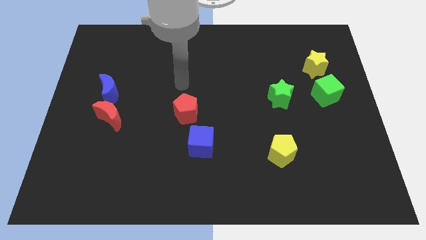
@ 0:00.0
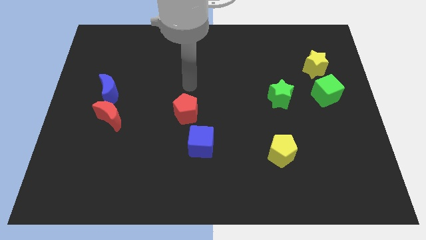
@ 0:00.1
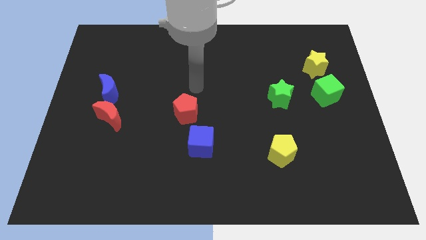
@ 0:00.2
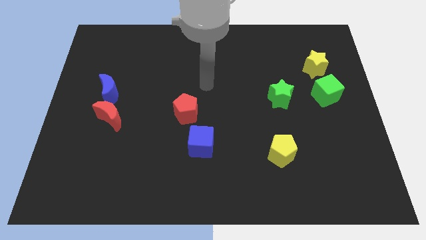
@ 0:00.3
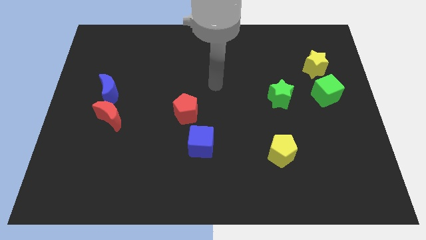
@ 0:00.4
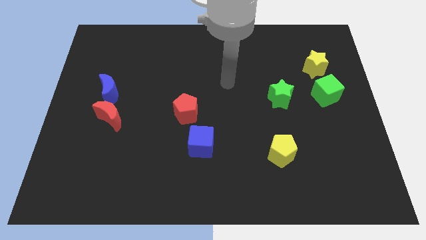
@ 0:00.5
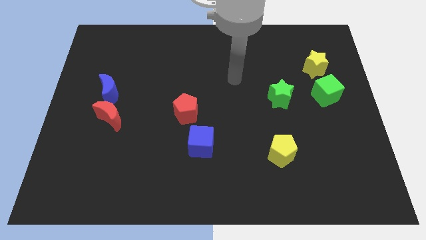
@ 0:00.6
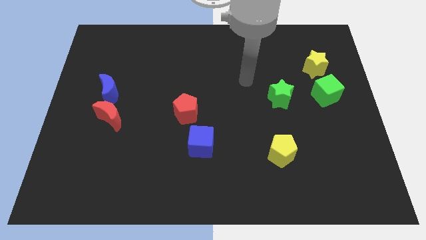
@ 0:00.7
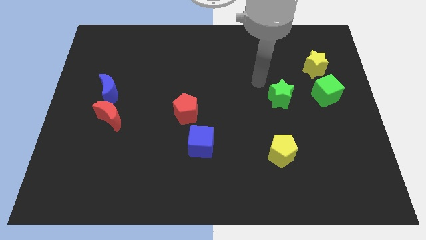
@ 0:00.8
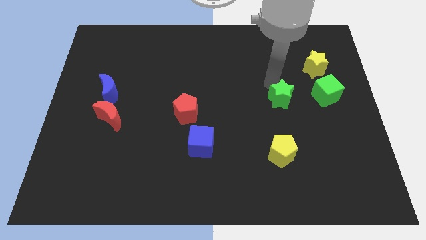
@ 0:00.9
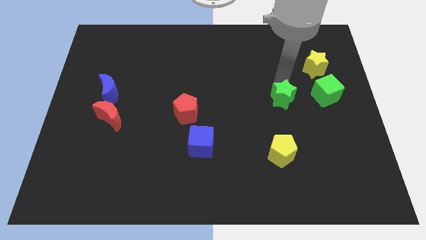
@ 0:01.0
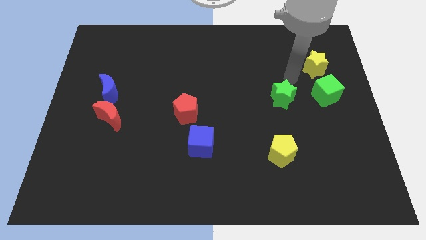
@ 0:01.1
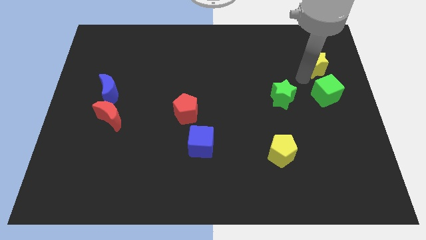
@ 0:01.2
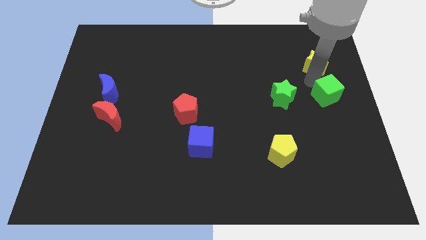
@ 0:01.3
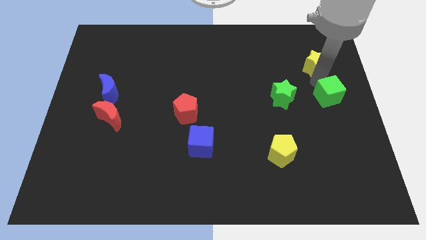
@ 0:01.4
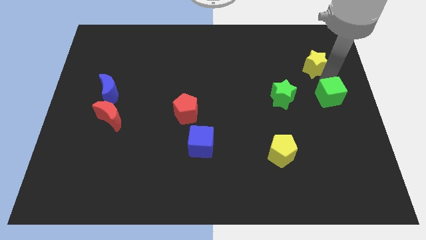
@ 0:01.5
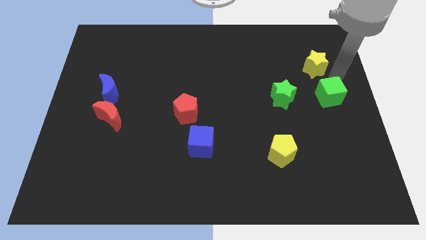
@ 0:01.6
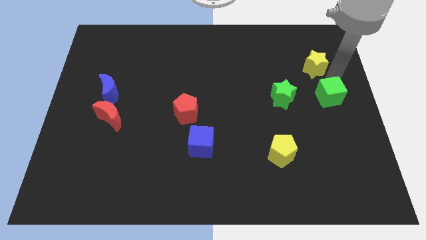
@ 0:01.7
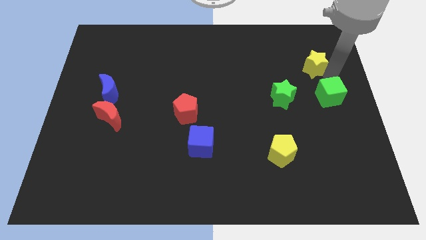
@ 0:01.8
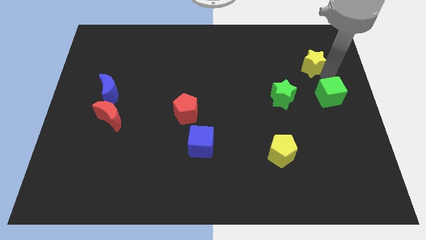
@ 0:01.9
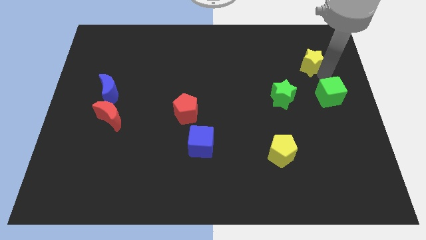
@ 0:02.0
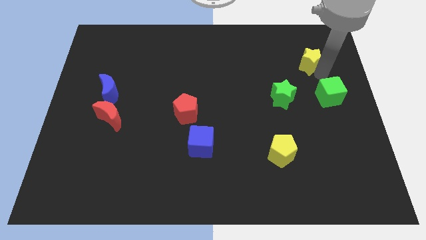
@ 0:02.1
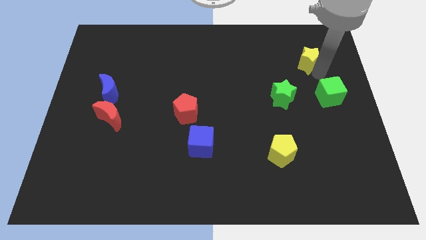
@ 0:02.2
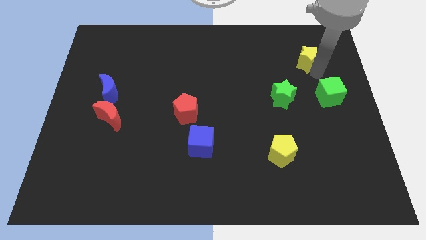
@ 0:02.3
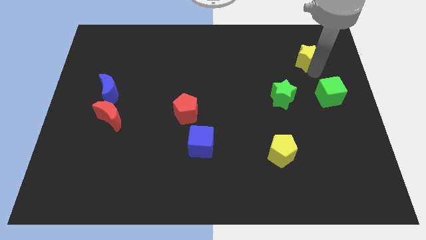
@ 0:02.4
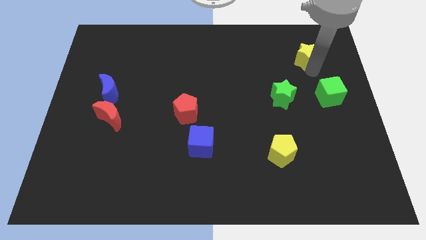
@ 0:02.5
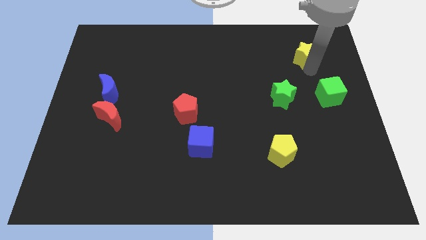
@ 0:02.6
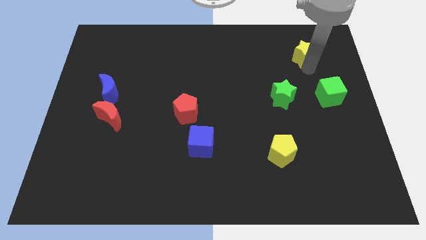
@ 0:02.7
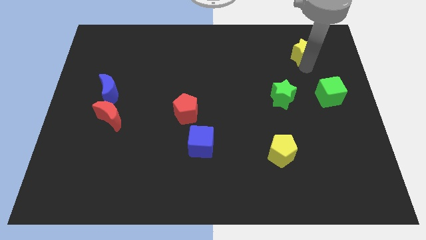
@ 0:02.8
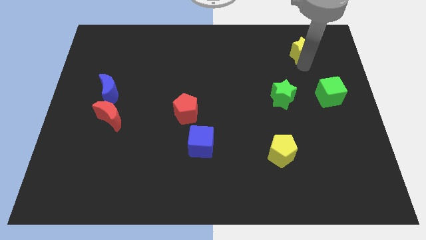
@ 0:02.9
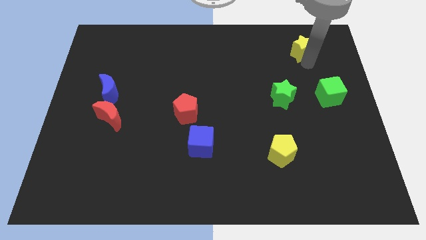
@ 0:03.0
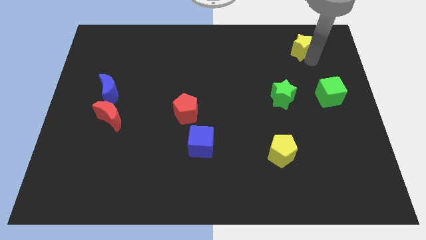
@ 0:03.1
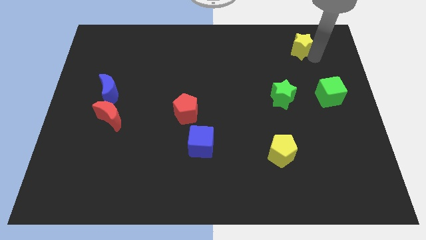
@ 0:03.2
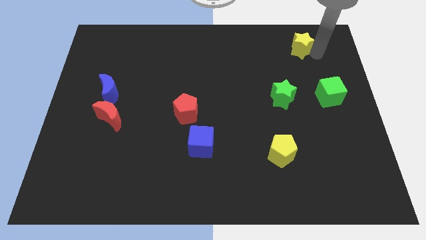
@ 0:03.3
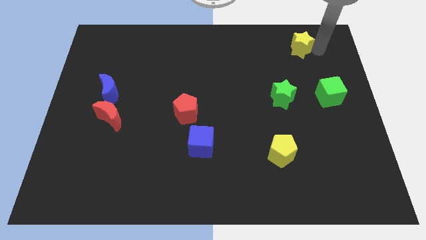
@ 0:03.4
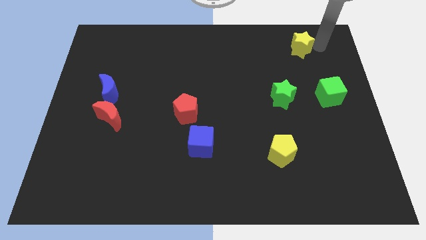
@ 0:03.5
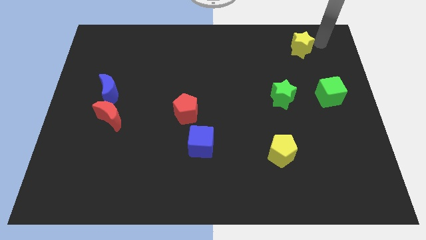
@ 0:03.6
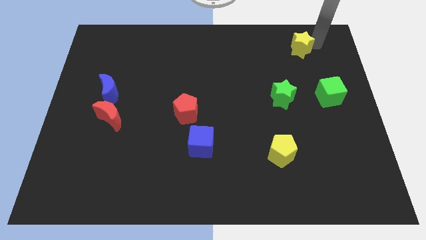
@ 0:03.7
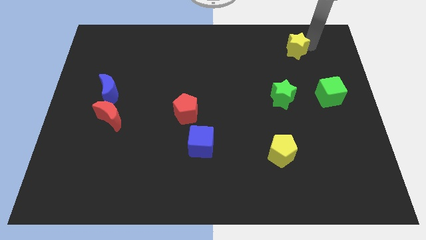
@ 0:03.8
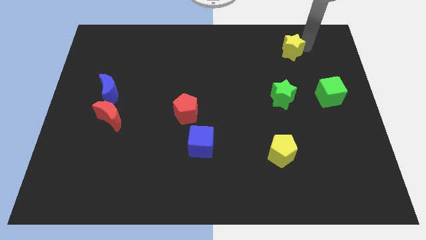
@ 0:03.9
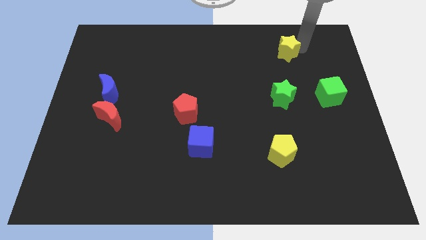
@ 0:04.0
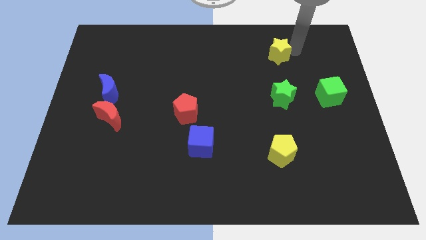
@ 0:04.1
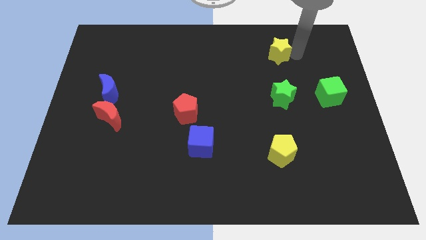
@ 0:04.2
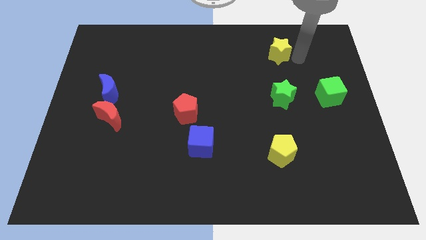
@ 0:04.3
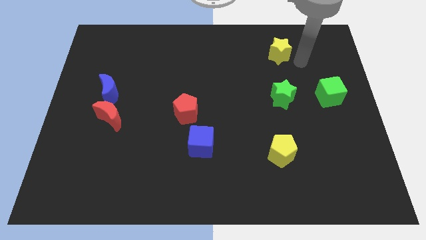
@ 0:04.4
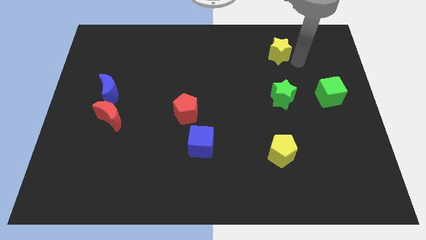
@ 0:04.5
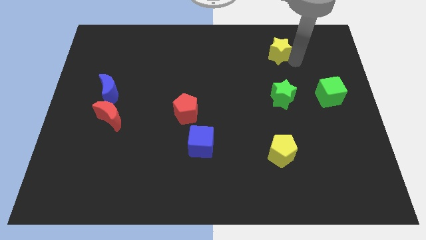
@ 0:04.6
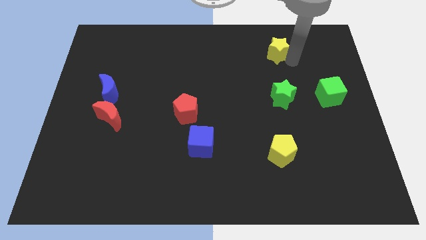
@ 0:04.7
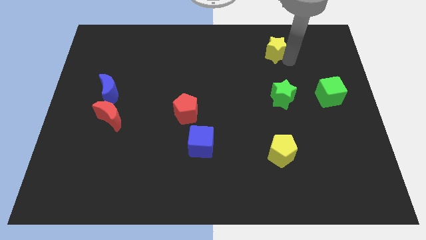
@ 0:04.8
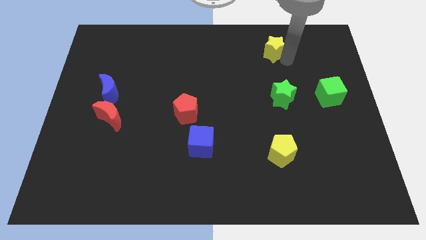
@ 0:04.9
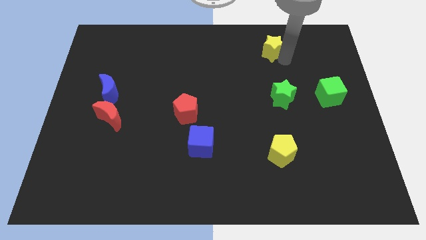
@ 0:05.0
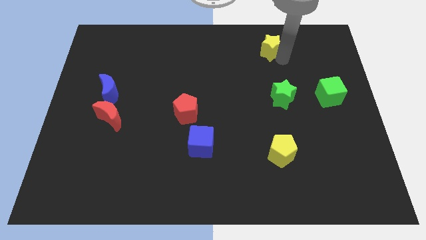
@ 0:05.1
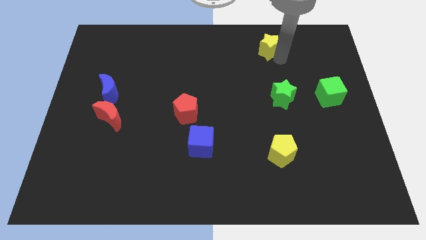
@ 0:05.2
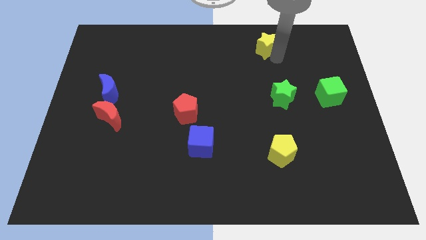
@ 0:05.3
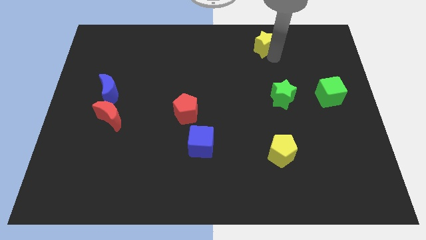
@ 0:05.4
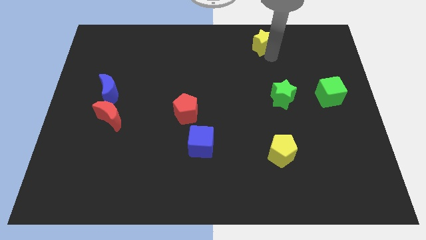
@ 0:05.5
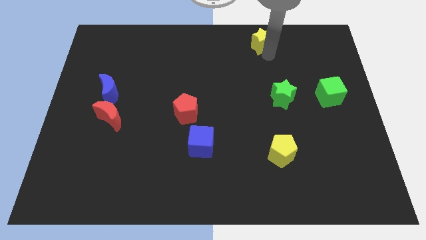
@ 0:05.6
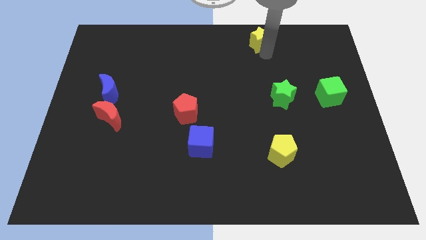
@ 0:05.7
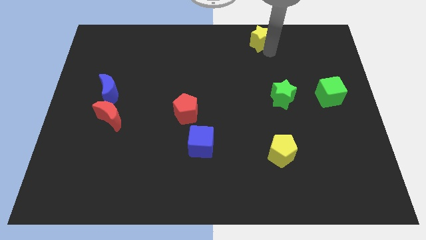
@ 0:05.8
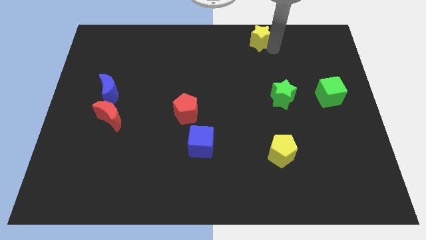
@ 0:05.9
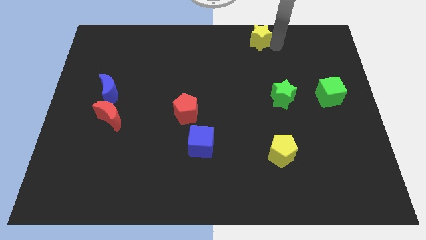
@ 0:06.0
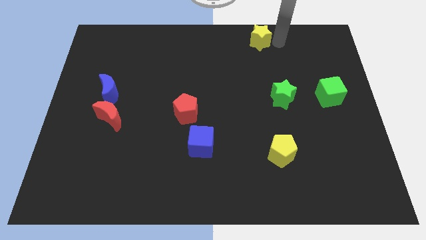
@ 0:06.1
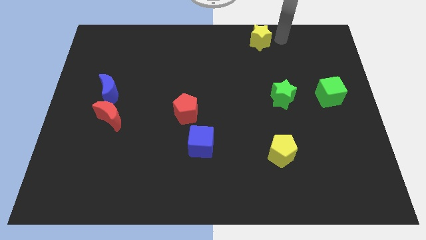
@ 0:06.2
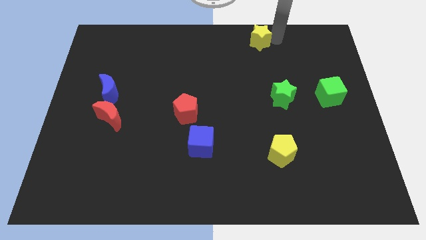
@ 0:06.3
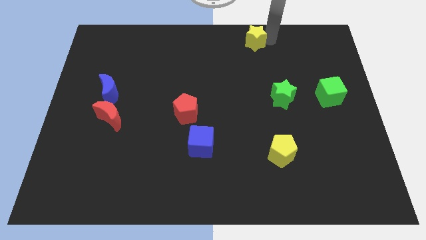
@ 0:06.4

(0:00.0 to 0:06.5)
move the yellow star to the top side
